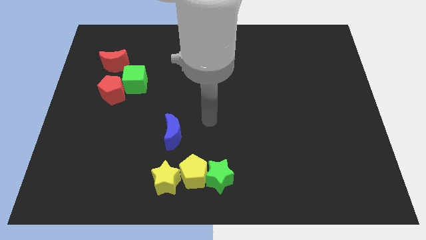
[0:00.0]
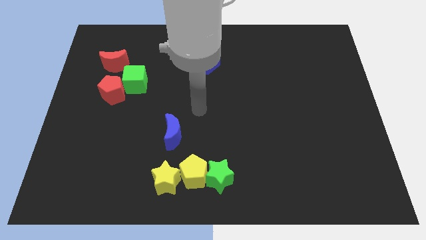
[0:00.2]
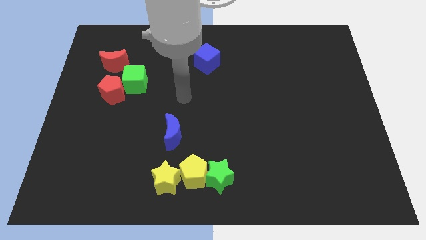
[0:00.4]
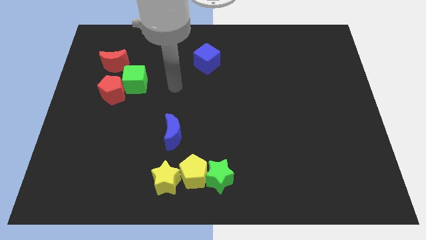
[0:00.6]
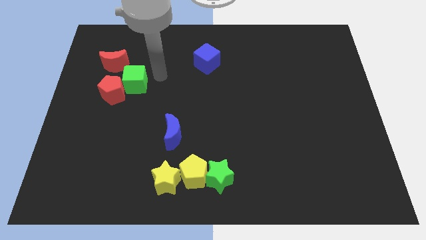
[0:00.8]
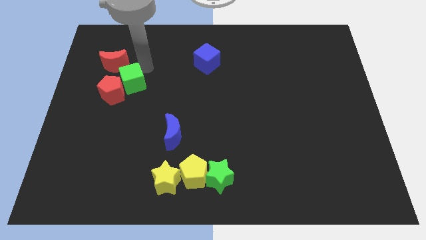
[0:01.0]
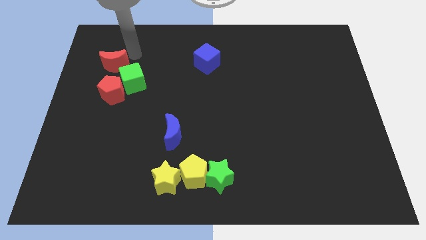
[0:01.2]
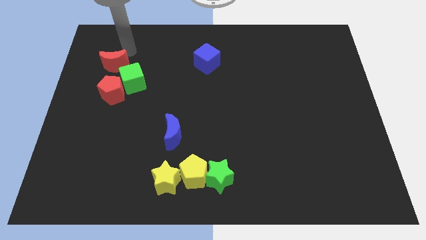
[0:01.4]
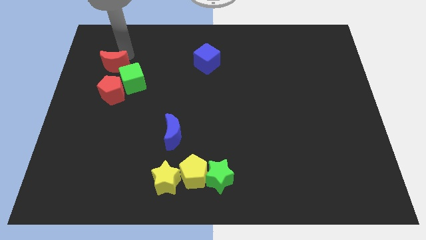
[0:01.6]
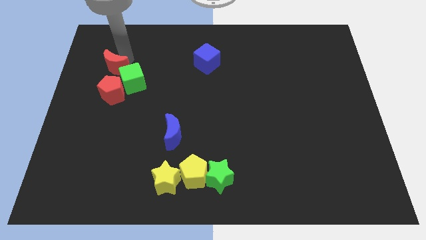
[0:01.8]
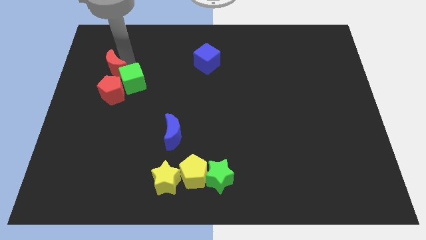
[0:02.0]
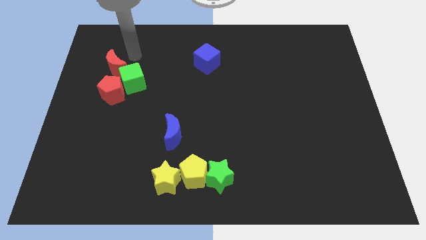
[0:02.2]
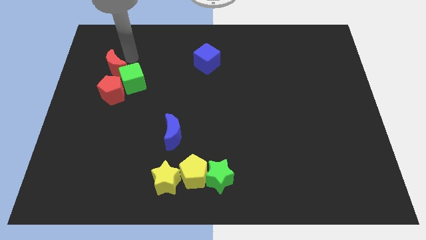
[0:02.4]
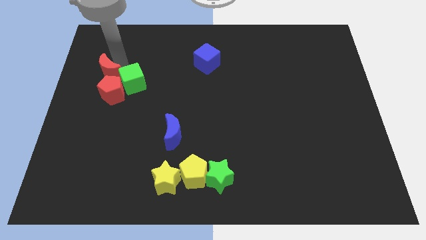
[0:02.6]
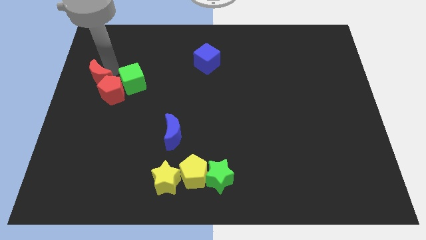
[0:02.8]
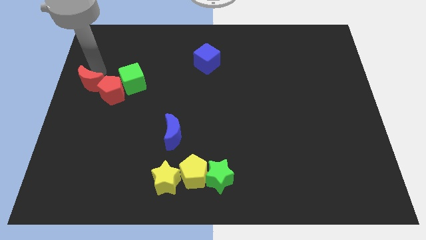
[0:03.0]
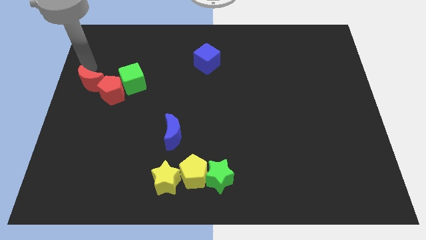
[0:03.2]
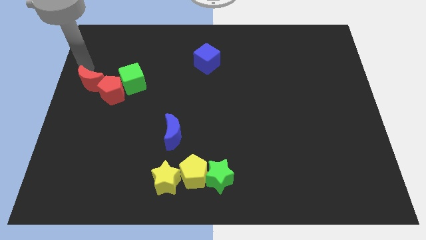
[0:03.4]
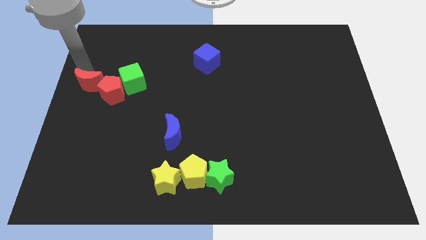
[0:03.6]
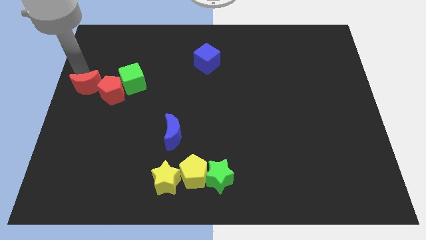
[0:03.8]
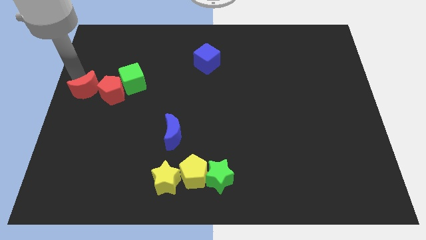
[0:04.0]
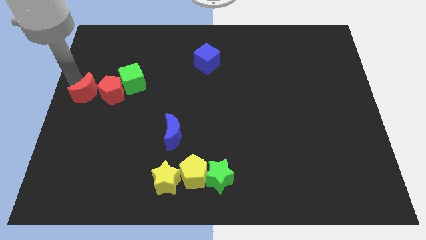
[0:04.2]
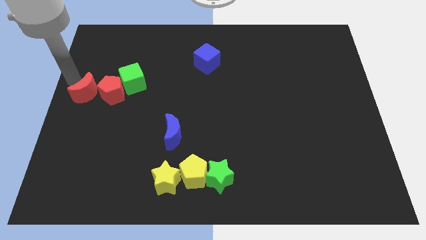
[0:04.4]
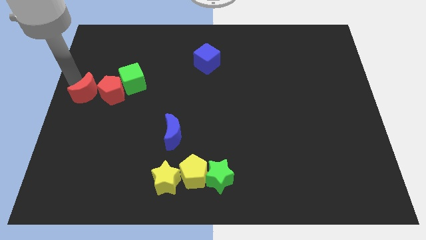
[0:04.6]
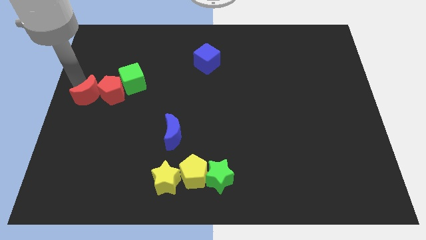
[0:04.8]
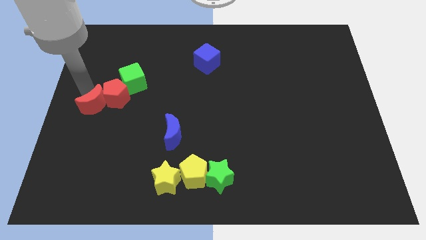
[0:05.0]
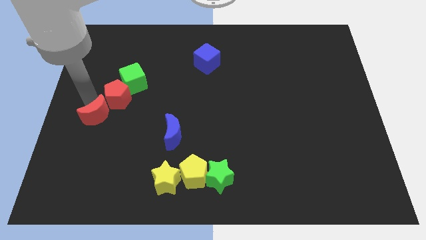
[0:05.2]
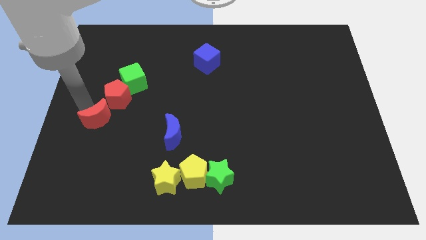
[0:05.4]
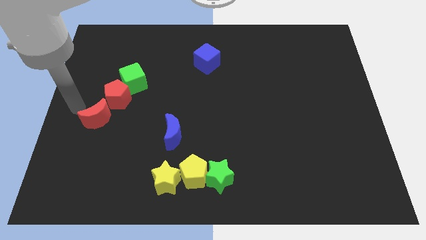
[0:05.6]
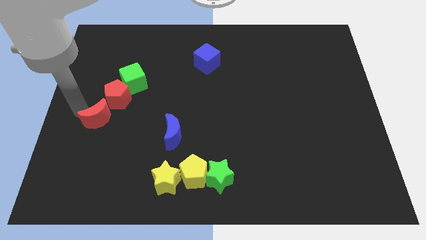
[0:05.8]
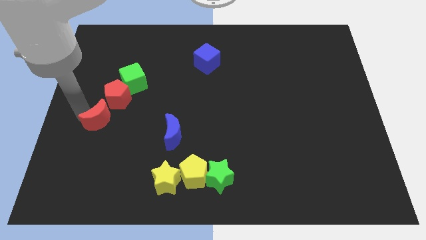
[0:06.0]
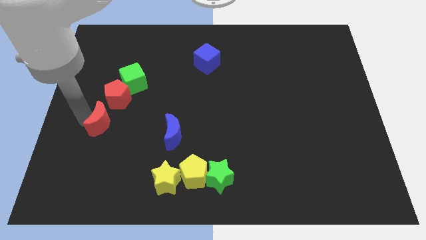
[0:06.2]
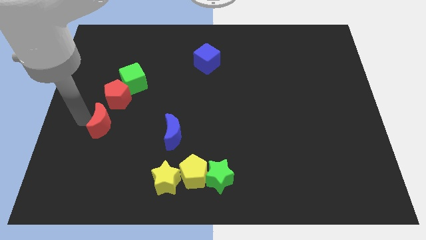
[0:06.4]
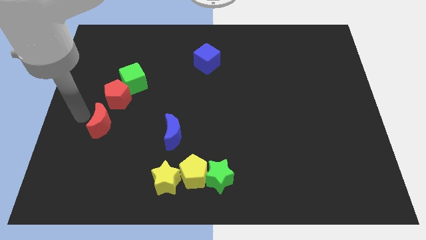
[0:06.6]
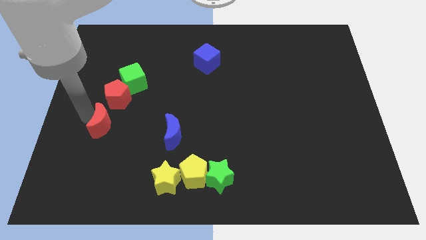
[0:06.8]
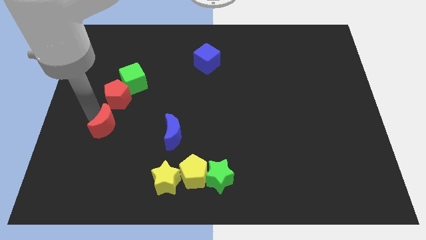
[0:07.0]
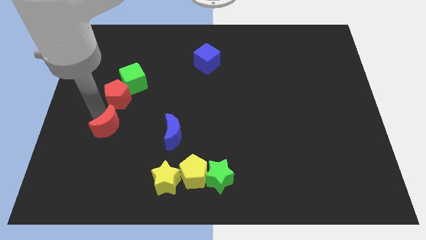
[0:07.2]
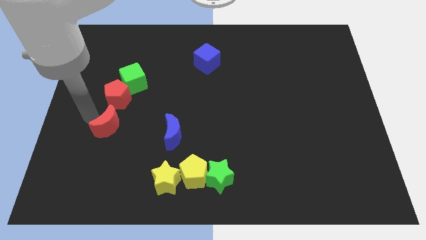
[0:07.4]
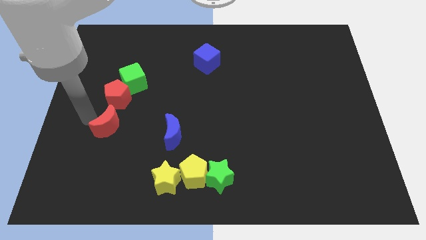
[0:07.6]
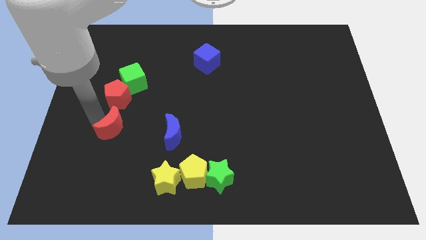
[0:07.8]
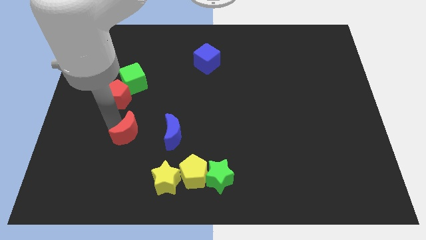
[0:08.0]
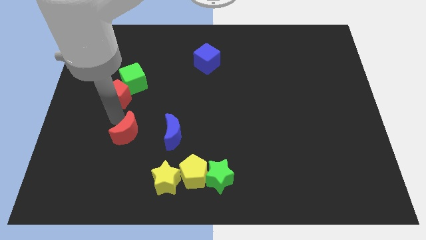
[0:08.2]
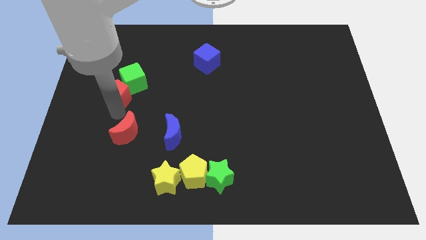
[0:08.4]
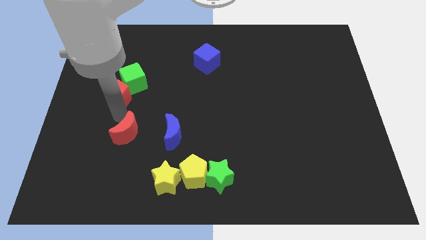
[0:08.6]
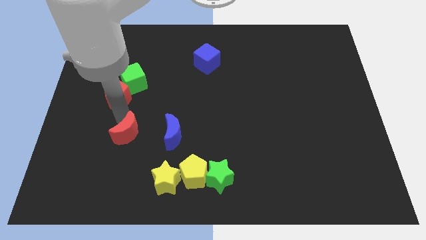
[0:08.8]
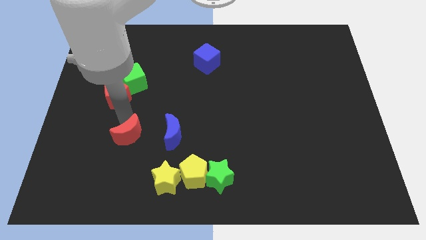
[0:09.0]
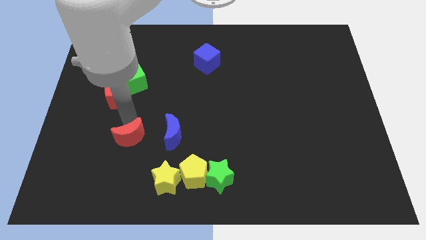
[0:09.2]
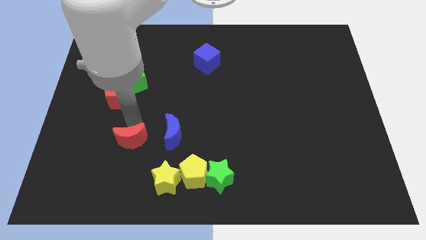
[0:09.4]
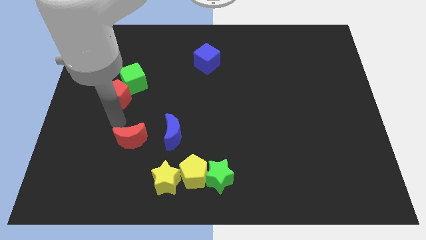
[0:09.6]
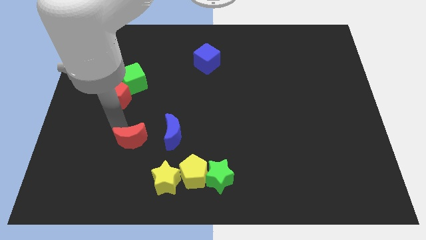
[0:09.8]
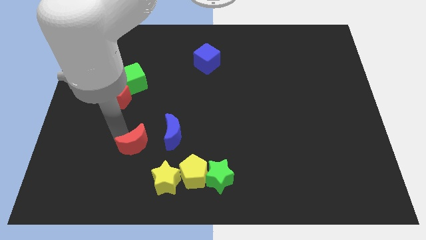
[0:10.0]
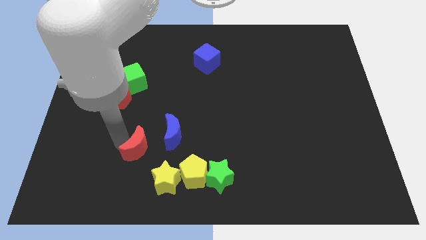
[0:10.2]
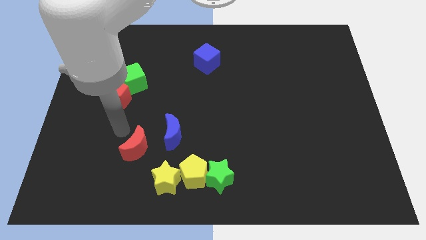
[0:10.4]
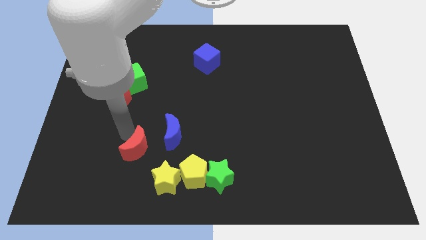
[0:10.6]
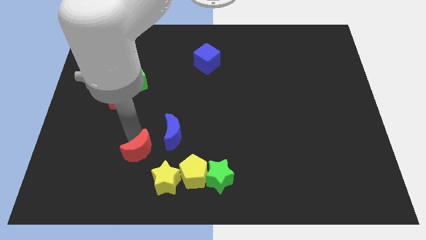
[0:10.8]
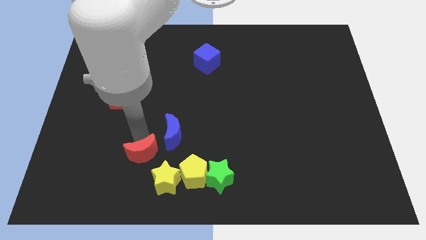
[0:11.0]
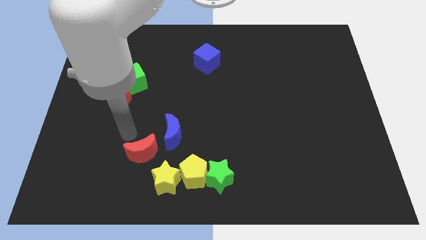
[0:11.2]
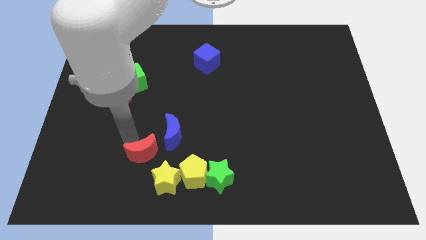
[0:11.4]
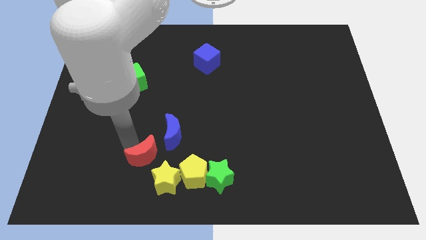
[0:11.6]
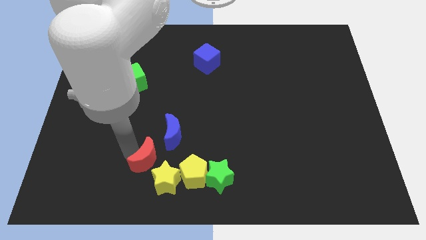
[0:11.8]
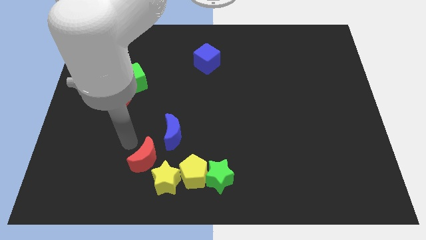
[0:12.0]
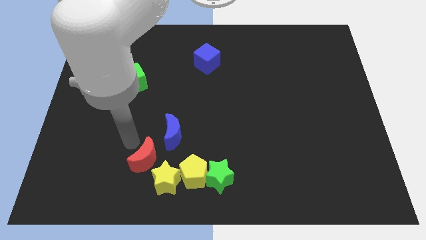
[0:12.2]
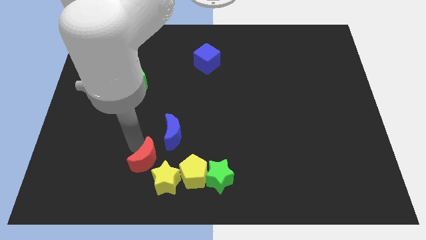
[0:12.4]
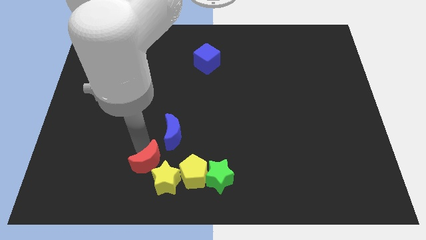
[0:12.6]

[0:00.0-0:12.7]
put the red moon towards the yellow star
